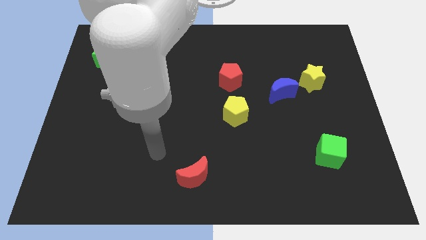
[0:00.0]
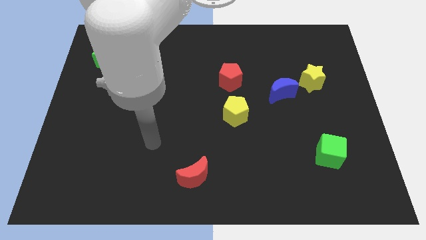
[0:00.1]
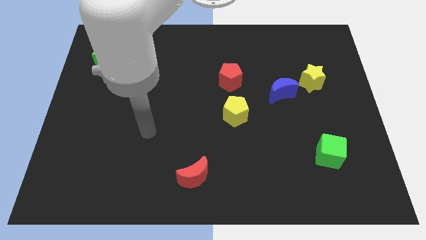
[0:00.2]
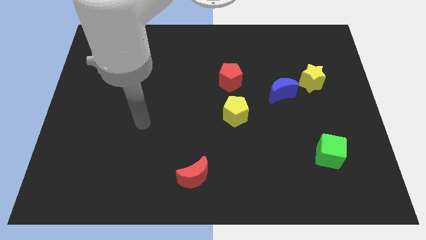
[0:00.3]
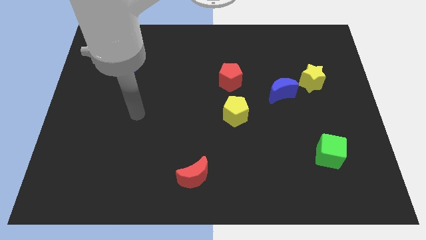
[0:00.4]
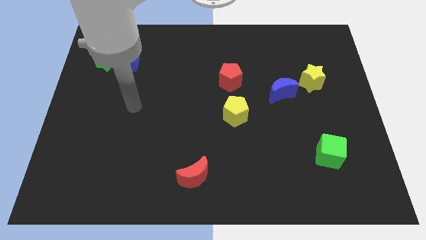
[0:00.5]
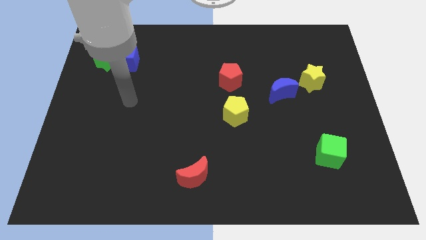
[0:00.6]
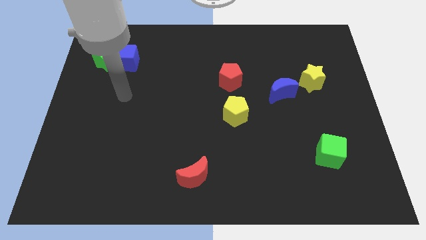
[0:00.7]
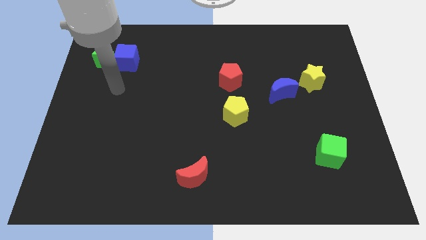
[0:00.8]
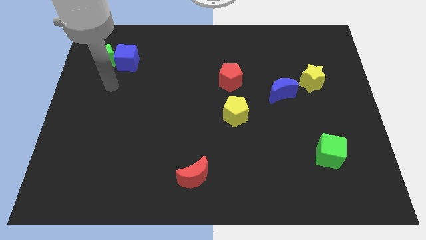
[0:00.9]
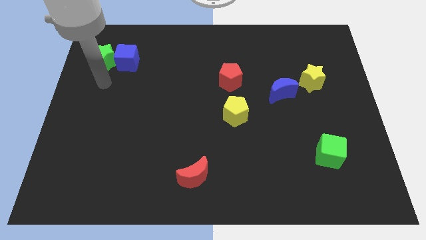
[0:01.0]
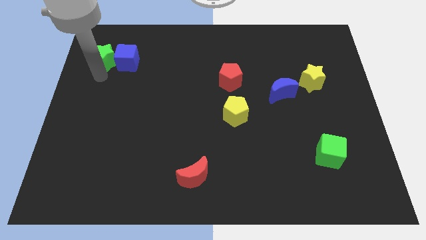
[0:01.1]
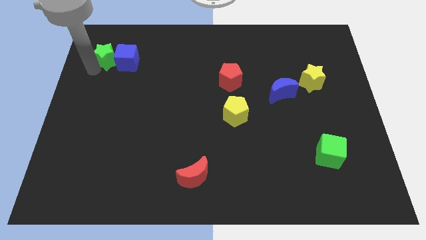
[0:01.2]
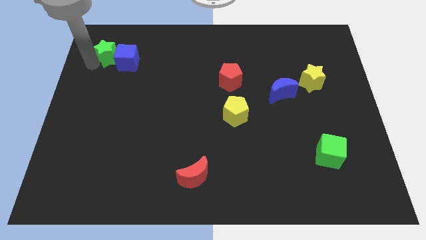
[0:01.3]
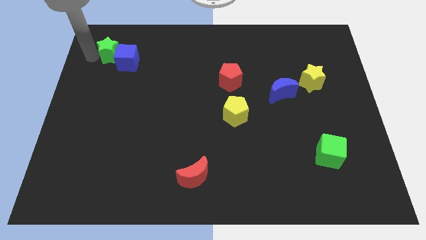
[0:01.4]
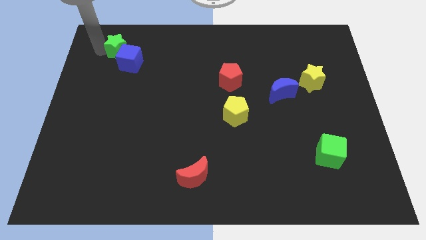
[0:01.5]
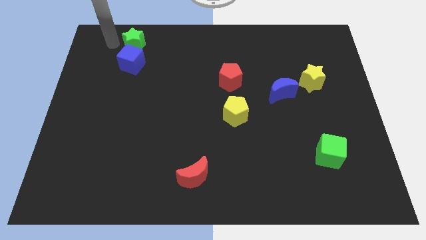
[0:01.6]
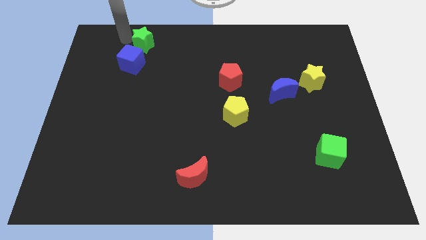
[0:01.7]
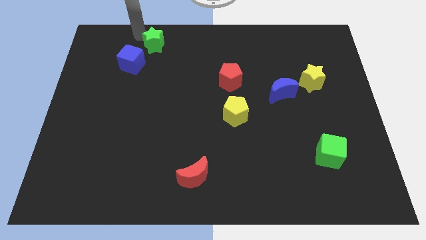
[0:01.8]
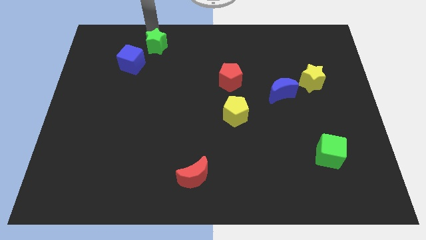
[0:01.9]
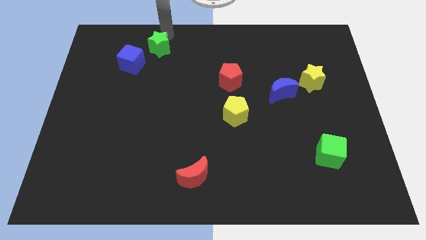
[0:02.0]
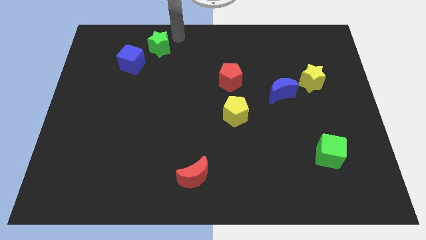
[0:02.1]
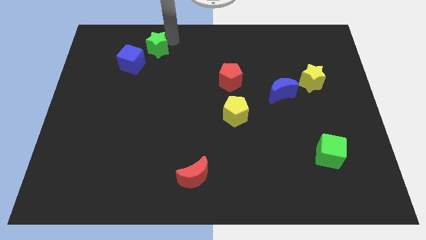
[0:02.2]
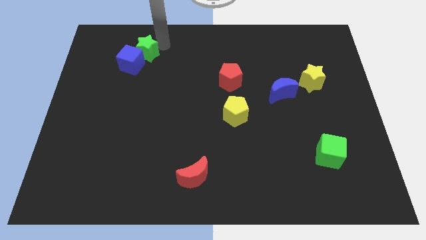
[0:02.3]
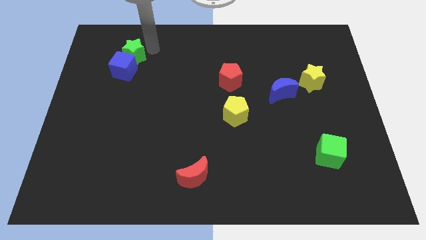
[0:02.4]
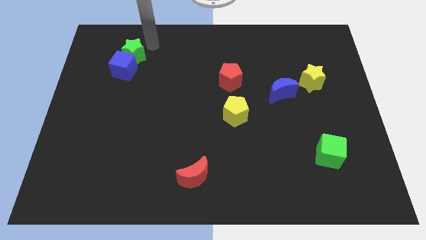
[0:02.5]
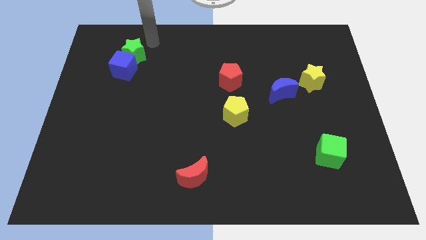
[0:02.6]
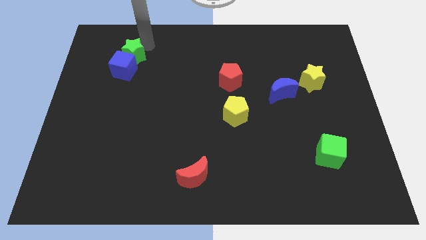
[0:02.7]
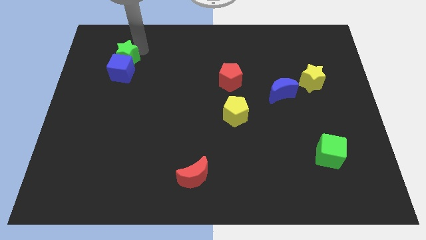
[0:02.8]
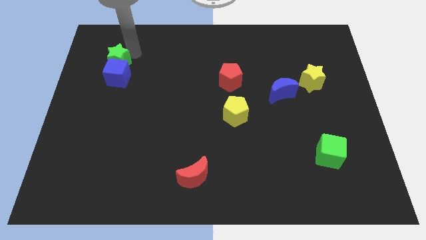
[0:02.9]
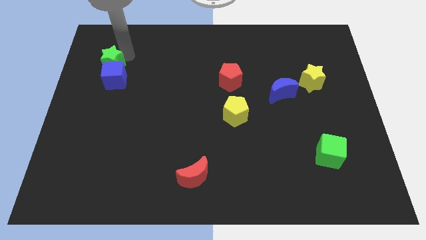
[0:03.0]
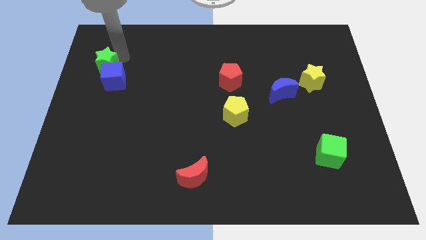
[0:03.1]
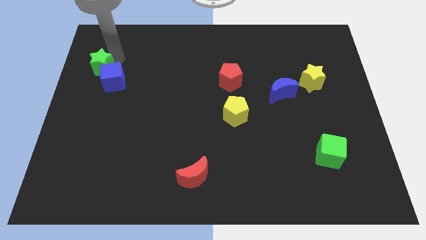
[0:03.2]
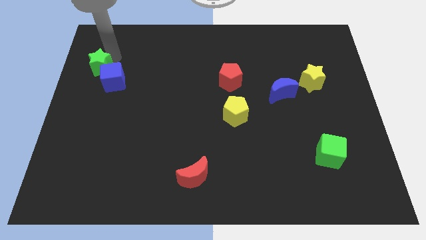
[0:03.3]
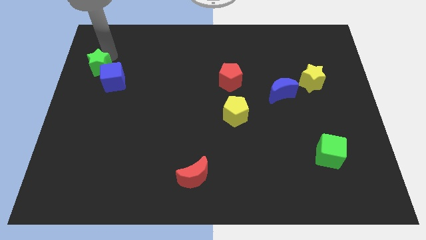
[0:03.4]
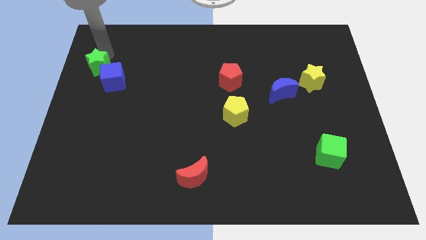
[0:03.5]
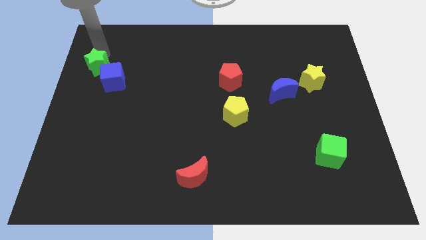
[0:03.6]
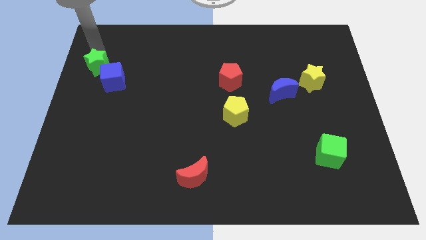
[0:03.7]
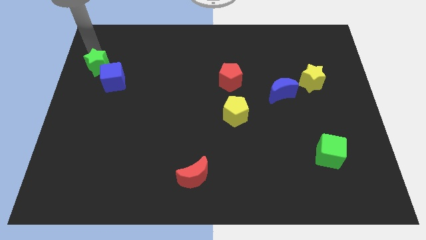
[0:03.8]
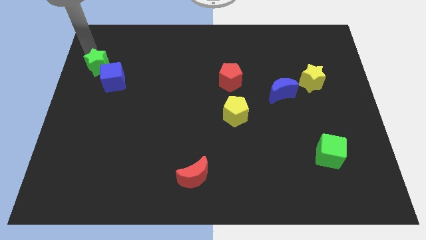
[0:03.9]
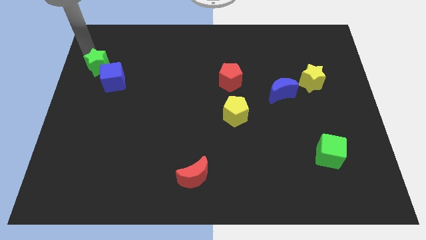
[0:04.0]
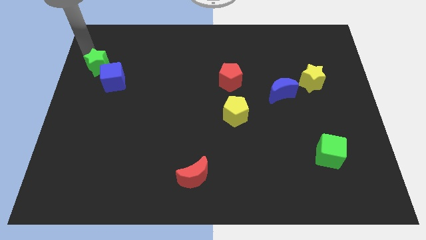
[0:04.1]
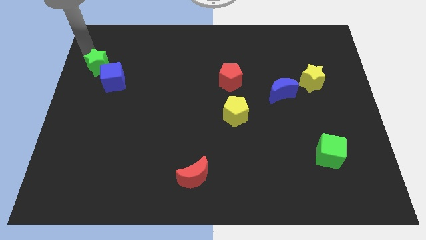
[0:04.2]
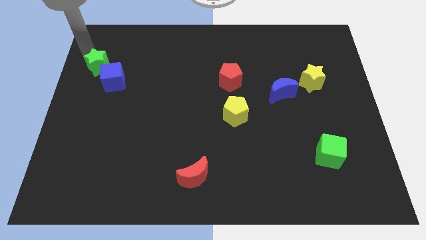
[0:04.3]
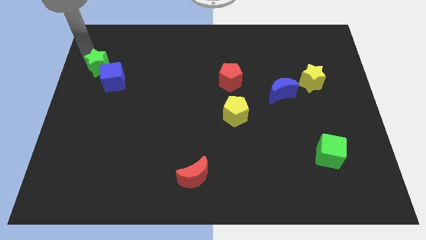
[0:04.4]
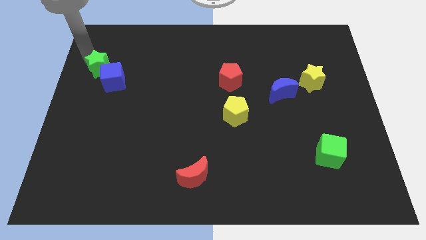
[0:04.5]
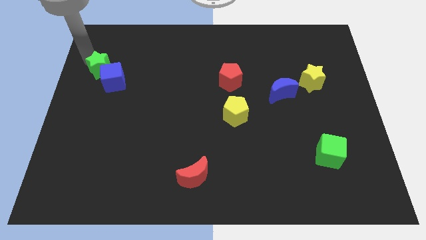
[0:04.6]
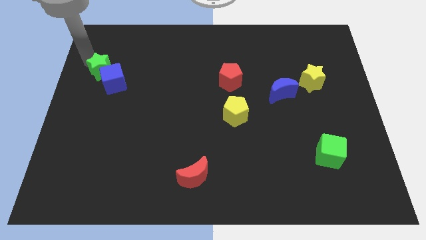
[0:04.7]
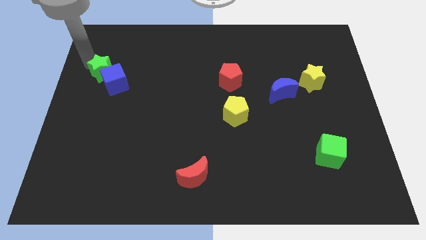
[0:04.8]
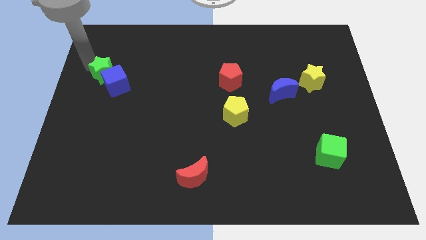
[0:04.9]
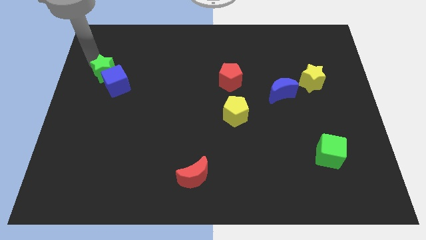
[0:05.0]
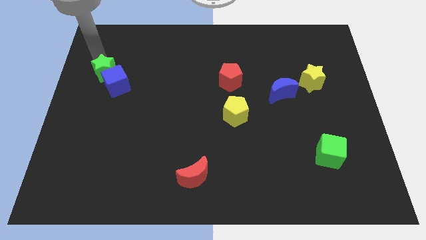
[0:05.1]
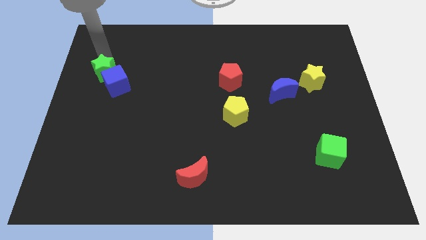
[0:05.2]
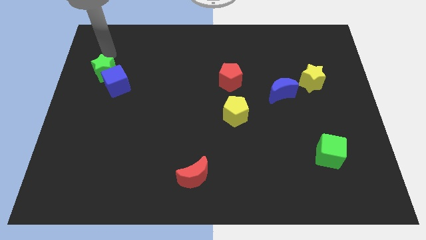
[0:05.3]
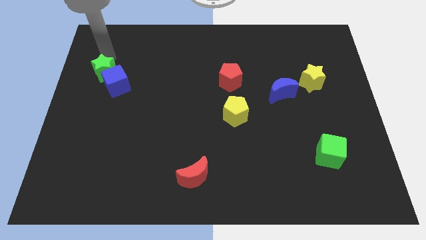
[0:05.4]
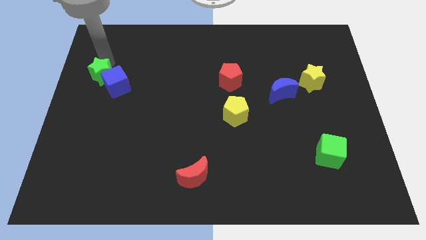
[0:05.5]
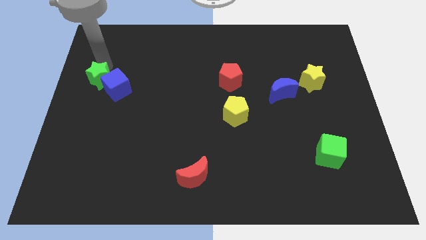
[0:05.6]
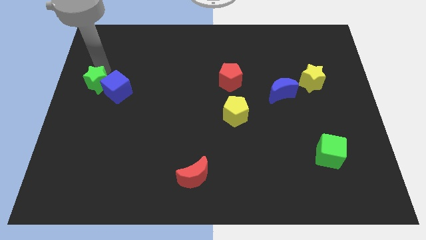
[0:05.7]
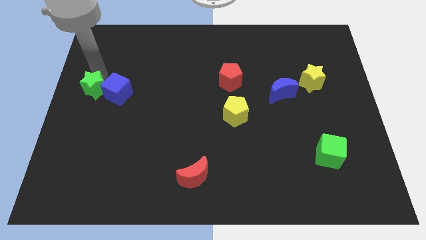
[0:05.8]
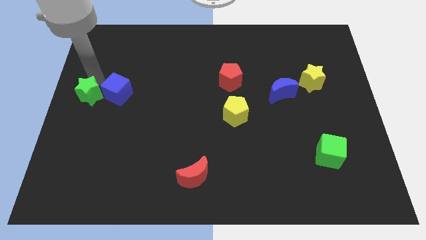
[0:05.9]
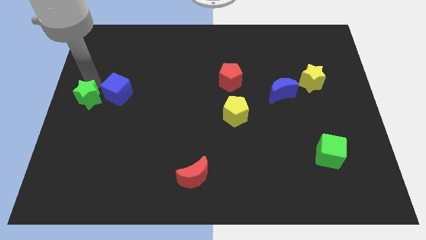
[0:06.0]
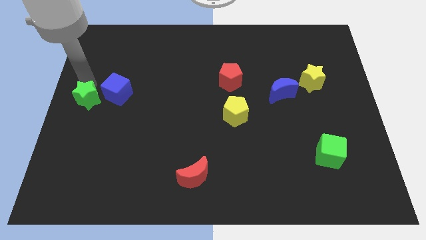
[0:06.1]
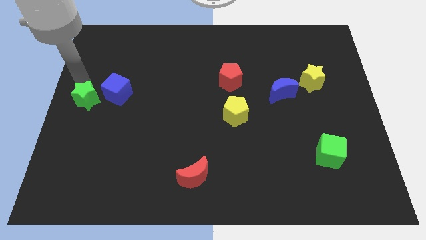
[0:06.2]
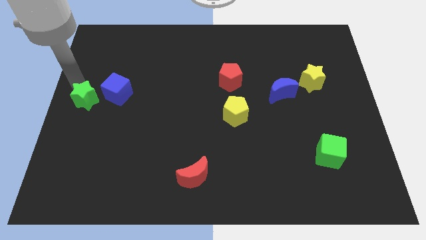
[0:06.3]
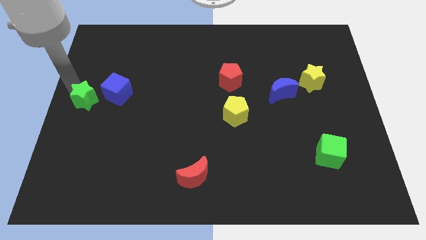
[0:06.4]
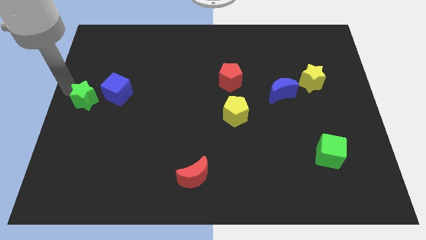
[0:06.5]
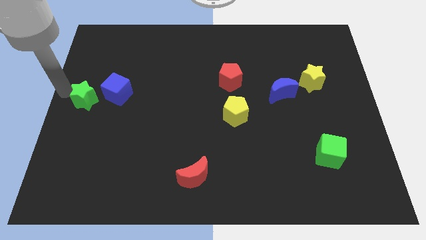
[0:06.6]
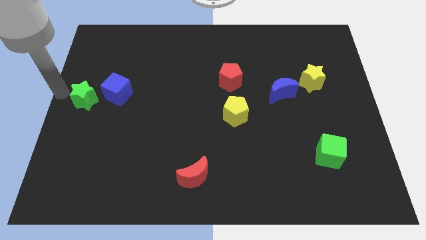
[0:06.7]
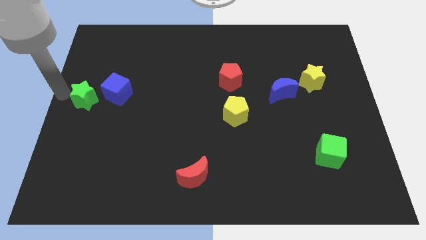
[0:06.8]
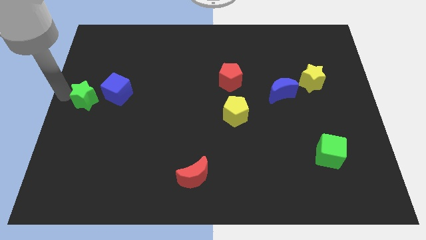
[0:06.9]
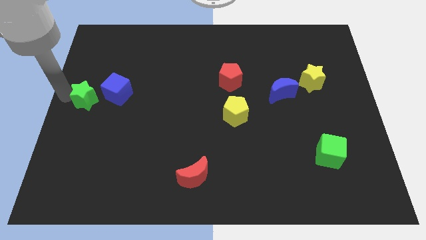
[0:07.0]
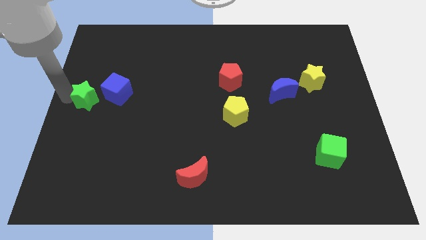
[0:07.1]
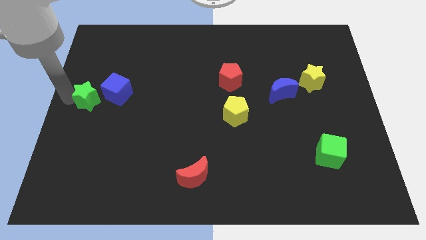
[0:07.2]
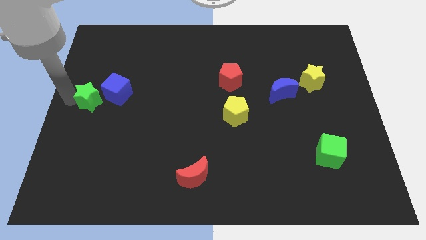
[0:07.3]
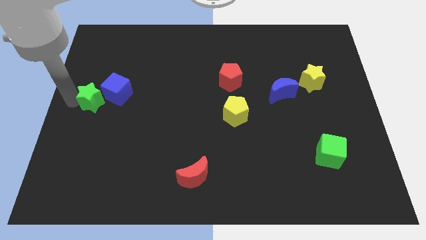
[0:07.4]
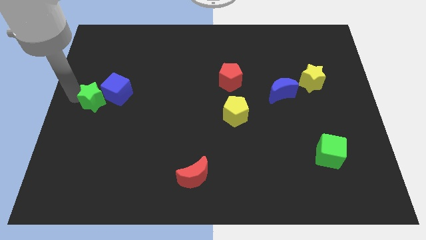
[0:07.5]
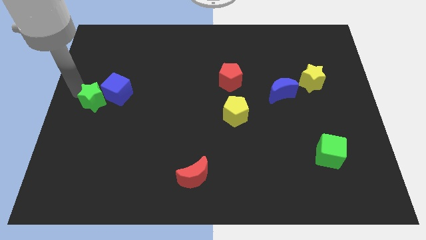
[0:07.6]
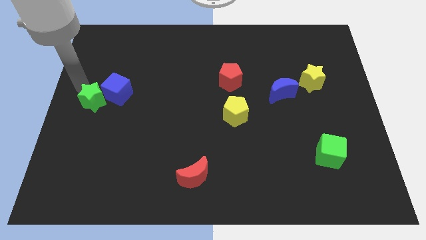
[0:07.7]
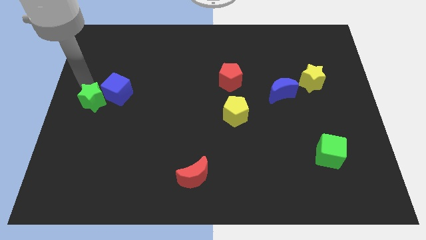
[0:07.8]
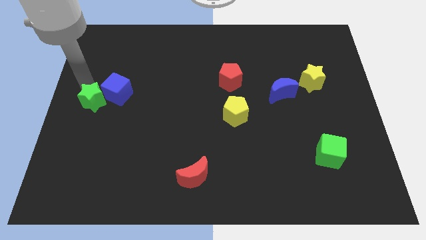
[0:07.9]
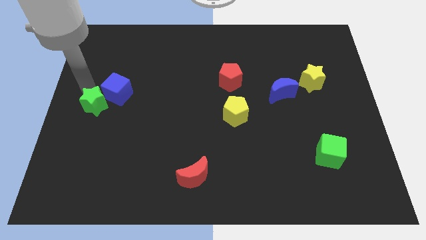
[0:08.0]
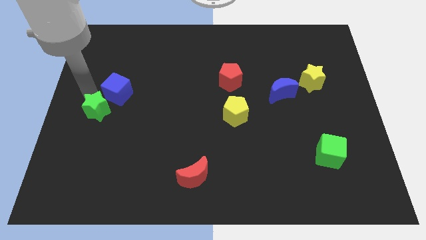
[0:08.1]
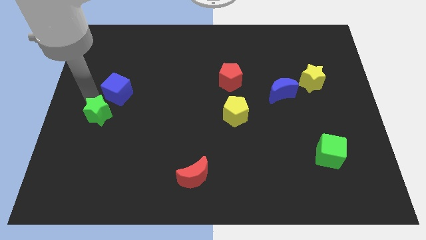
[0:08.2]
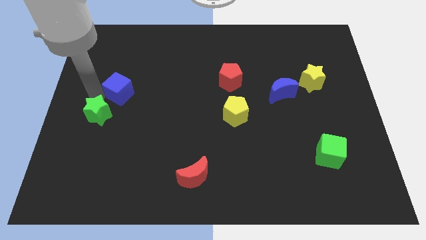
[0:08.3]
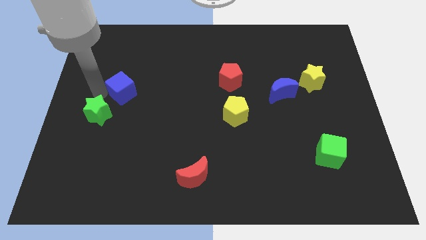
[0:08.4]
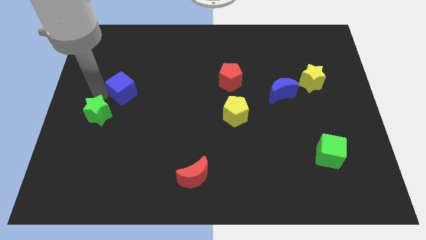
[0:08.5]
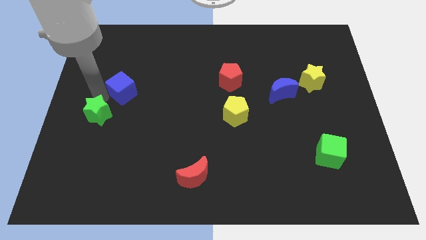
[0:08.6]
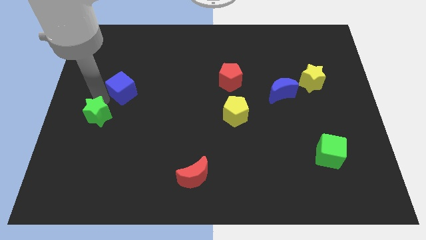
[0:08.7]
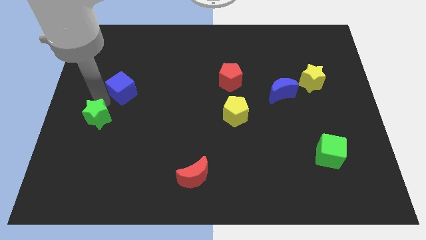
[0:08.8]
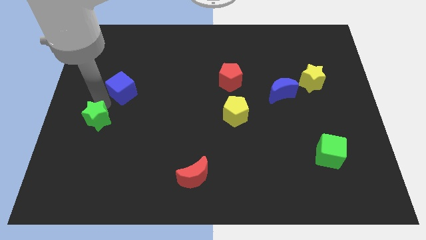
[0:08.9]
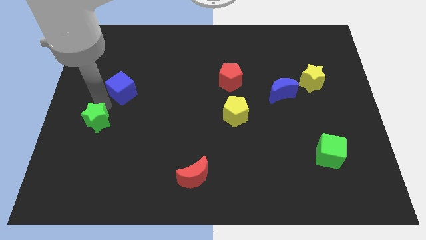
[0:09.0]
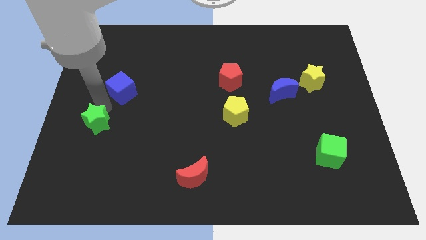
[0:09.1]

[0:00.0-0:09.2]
move the green star downwards
